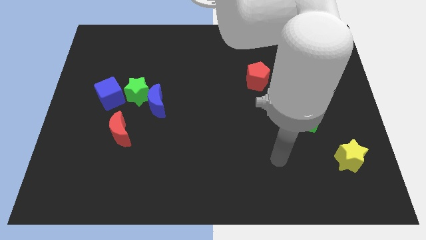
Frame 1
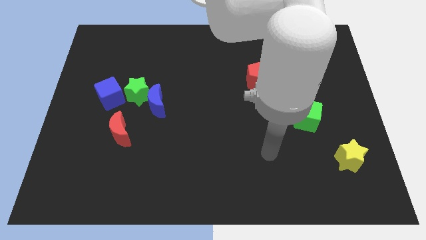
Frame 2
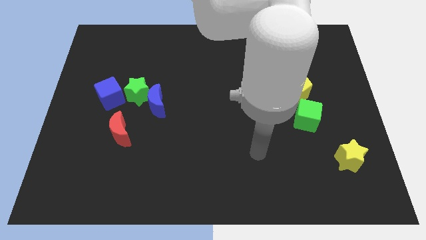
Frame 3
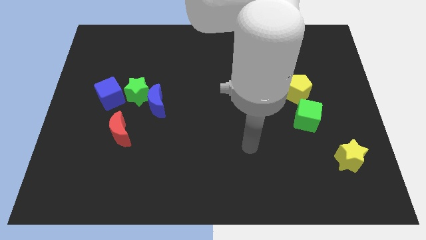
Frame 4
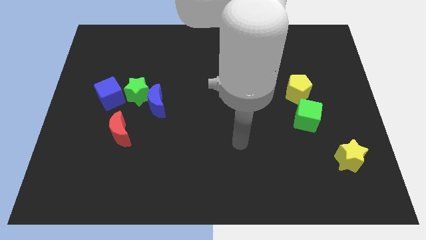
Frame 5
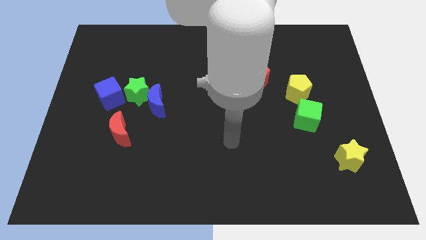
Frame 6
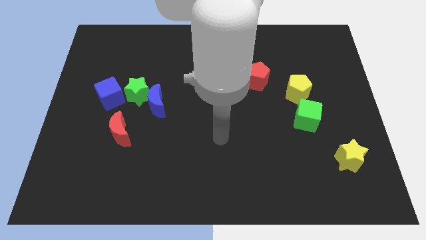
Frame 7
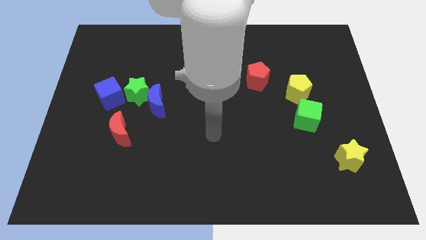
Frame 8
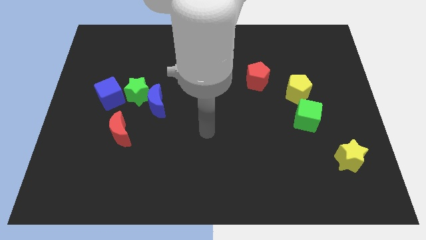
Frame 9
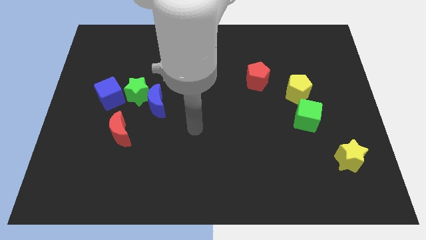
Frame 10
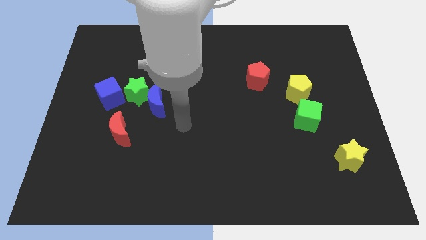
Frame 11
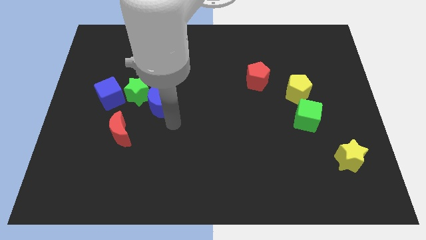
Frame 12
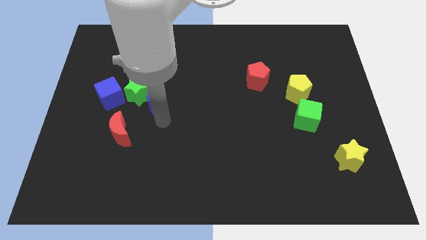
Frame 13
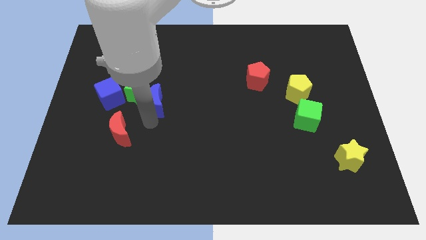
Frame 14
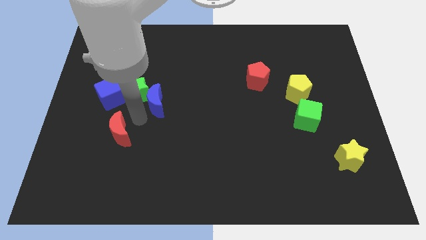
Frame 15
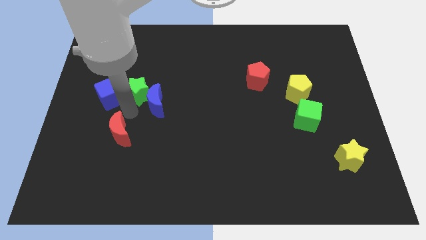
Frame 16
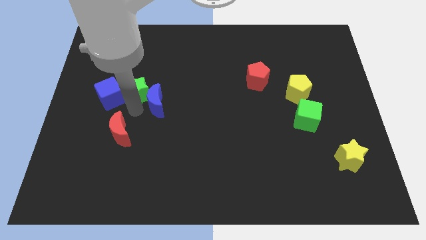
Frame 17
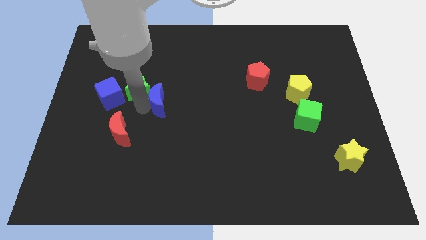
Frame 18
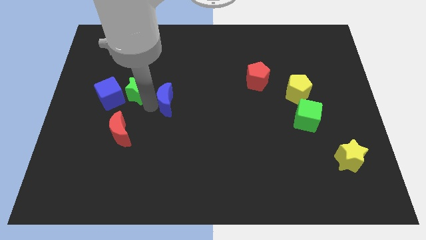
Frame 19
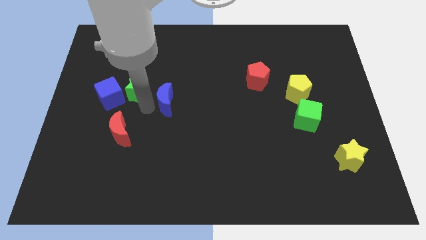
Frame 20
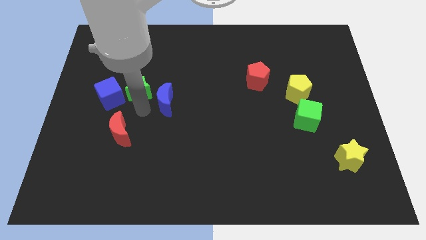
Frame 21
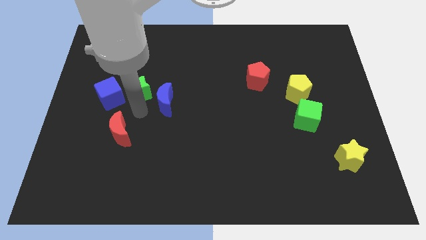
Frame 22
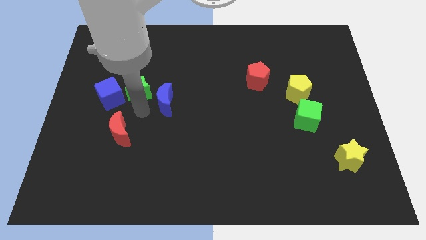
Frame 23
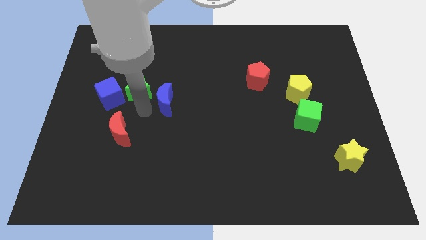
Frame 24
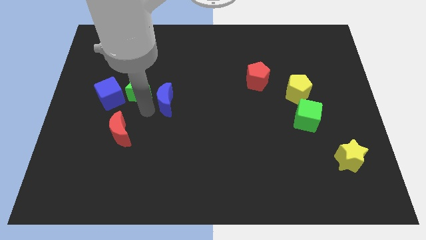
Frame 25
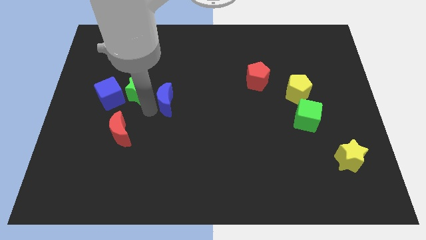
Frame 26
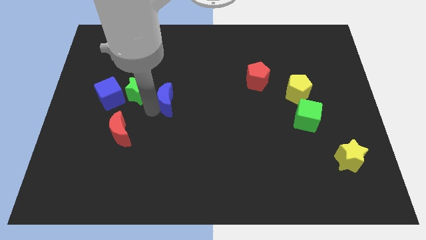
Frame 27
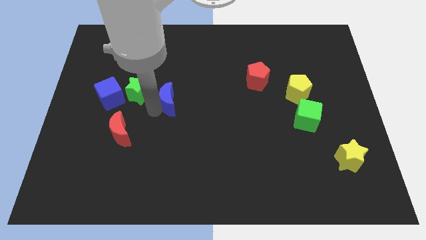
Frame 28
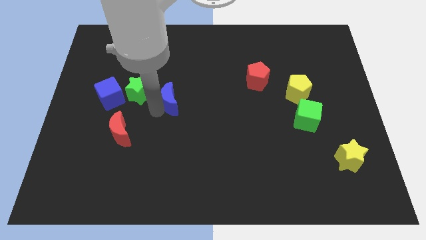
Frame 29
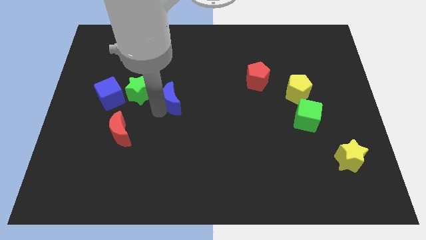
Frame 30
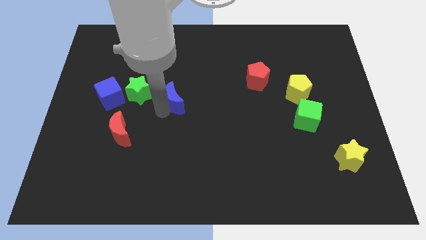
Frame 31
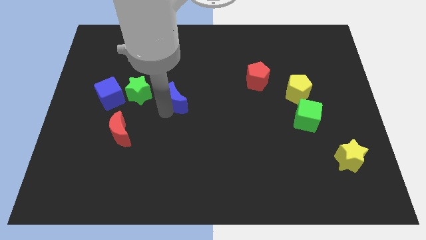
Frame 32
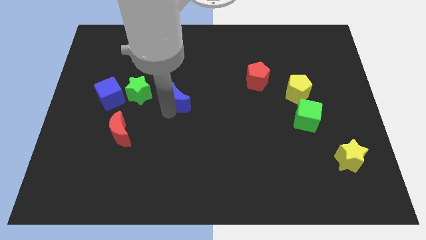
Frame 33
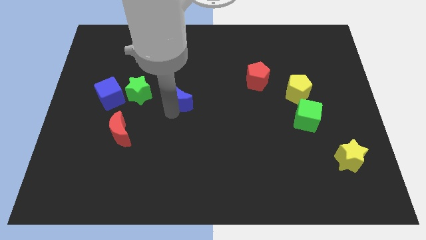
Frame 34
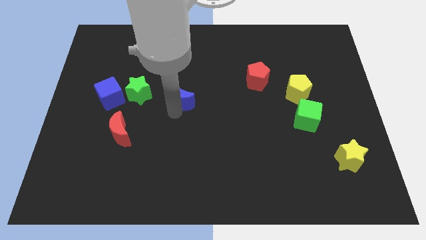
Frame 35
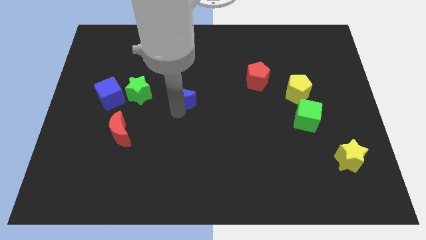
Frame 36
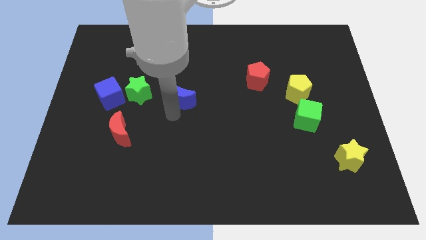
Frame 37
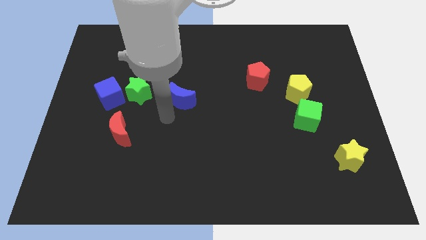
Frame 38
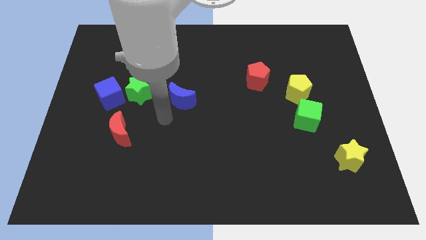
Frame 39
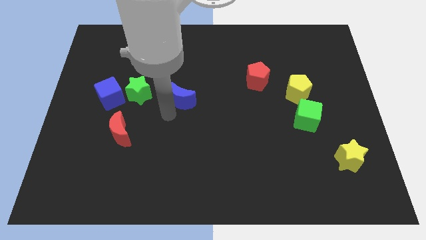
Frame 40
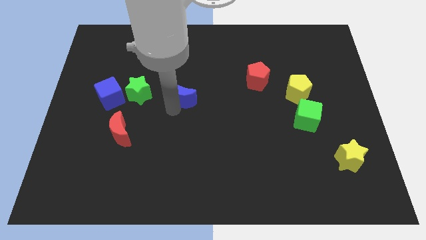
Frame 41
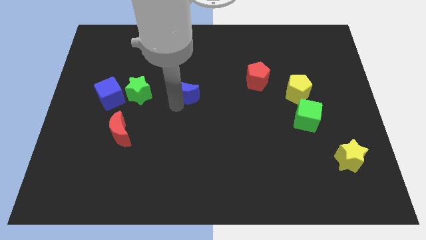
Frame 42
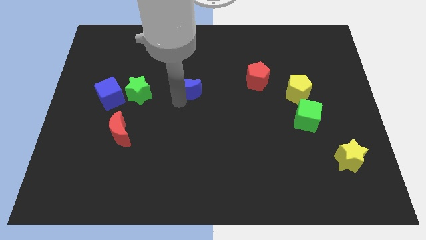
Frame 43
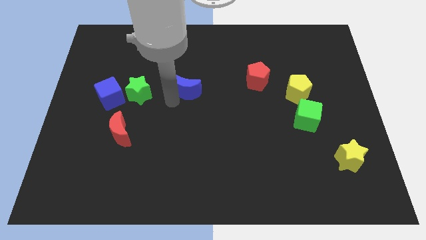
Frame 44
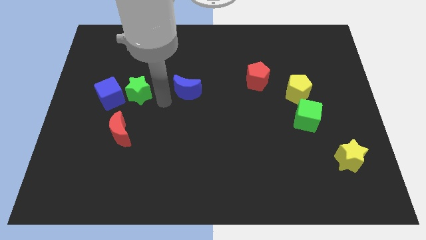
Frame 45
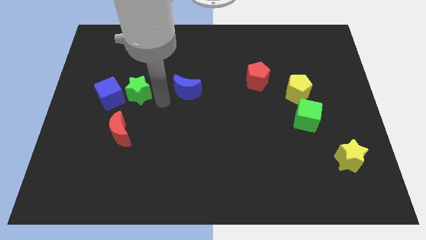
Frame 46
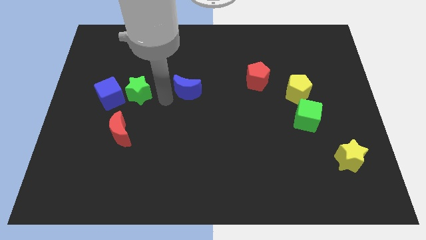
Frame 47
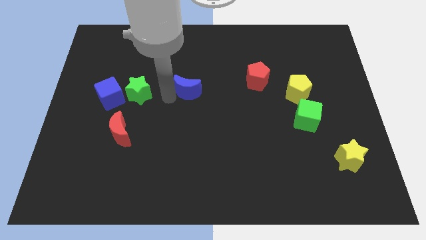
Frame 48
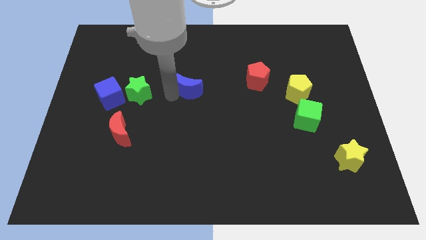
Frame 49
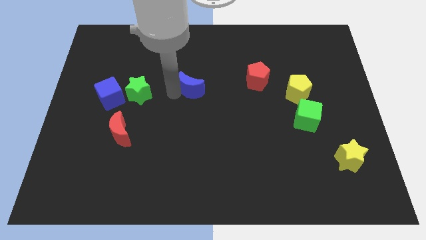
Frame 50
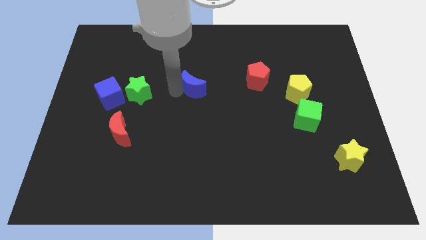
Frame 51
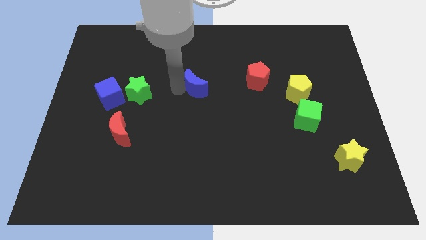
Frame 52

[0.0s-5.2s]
put the blue moon just left of the red pentagon

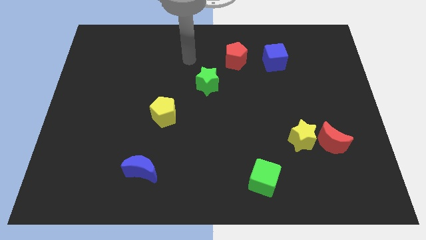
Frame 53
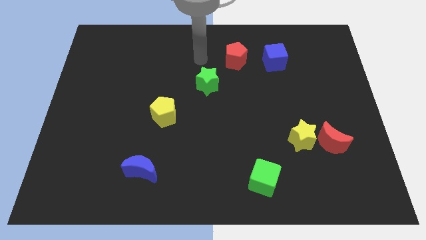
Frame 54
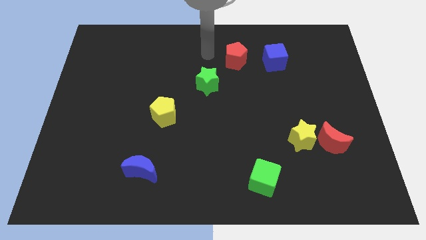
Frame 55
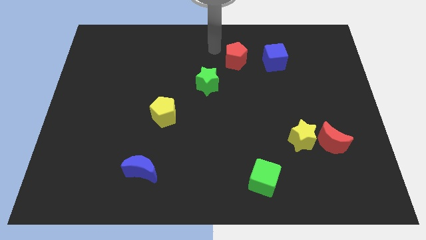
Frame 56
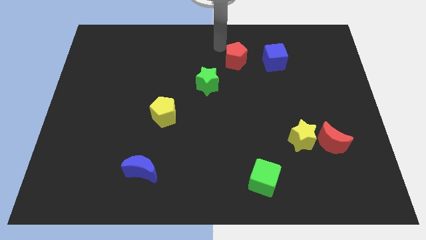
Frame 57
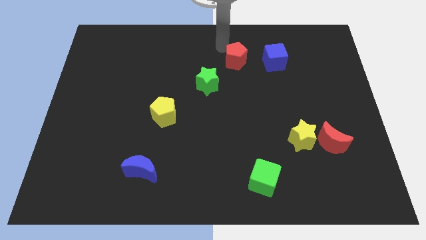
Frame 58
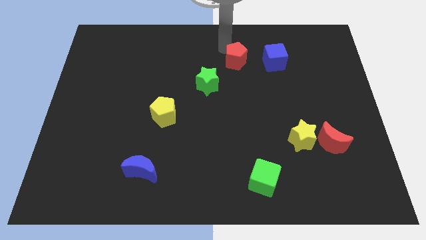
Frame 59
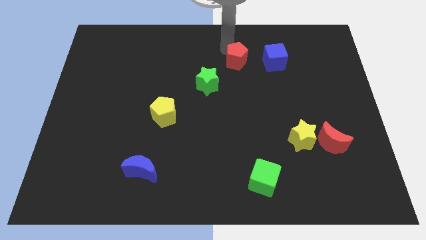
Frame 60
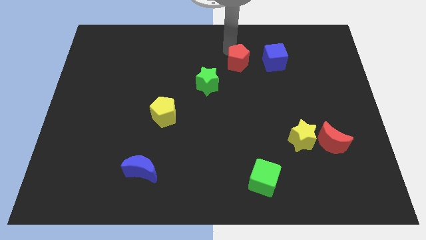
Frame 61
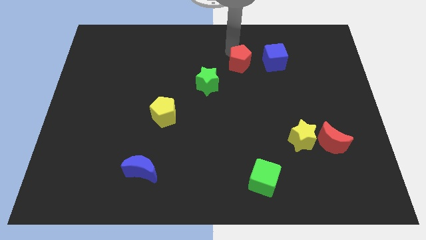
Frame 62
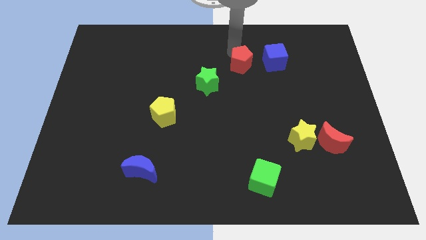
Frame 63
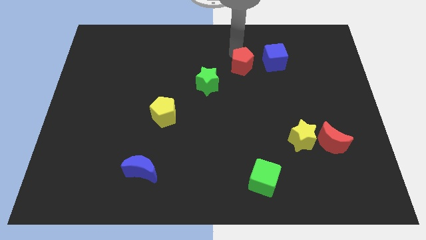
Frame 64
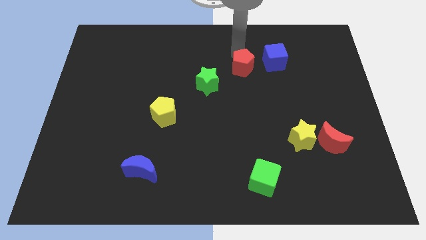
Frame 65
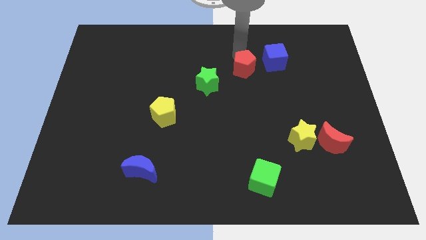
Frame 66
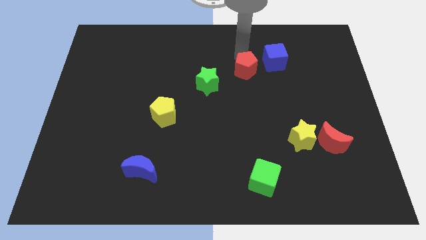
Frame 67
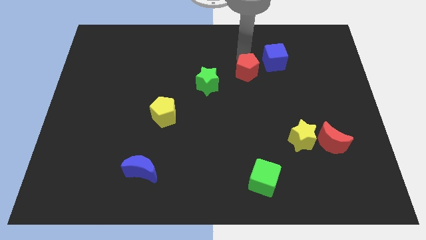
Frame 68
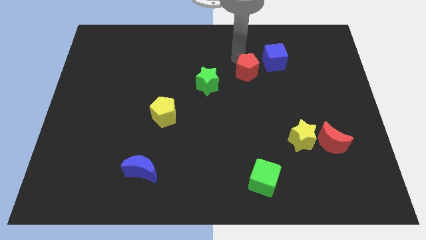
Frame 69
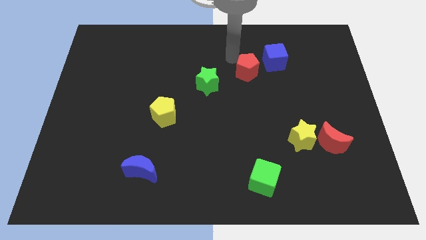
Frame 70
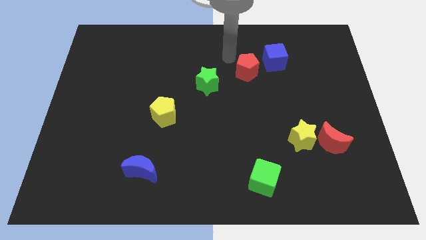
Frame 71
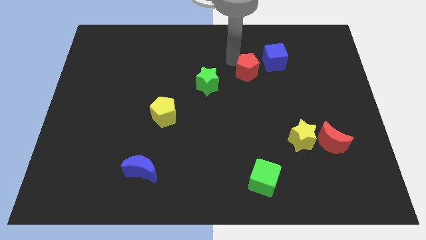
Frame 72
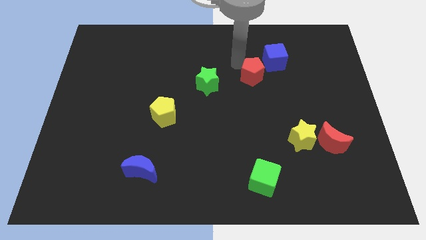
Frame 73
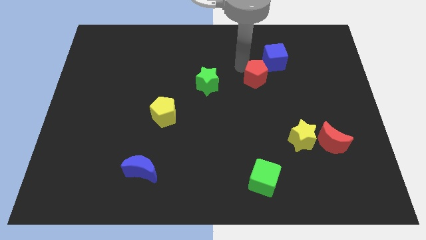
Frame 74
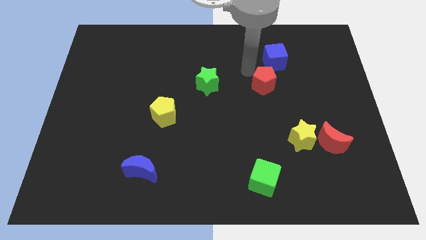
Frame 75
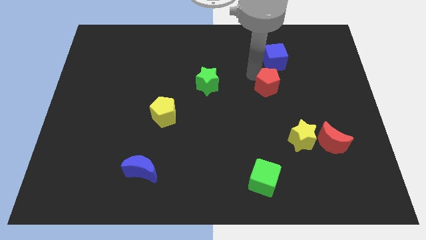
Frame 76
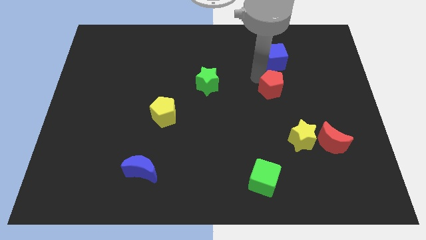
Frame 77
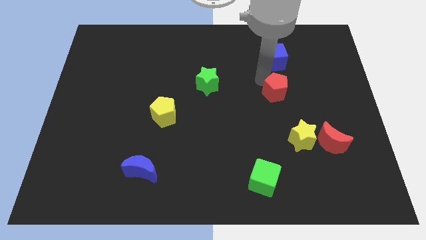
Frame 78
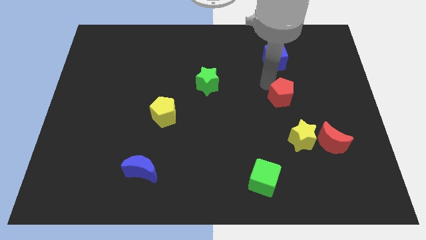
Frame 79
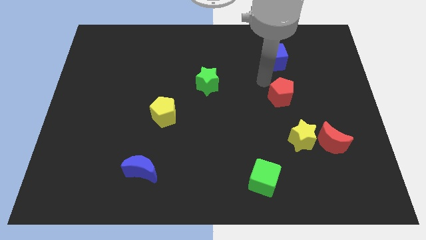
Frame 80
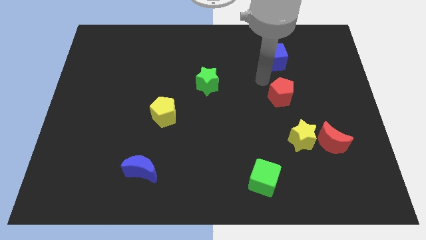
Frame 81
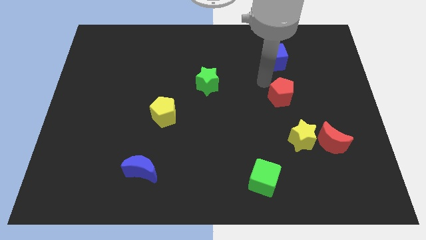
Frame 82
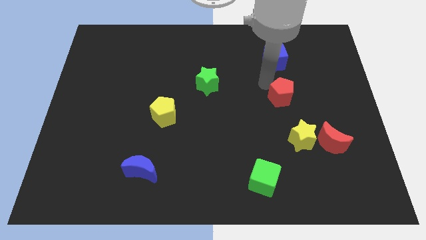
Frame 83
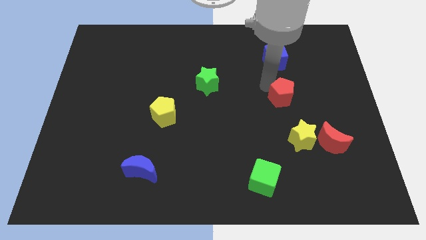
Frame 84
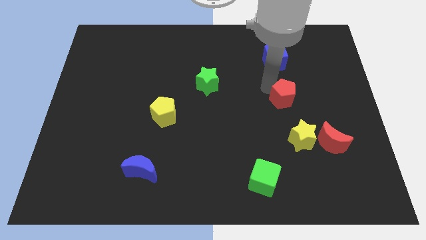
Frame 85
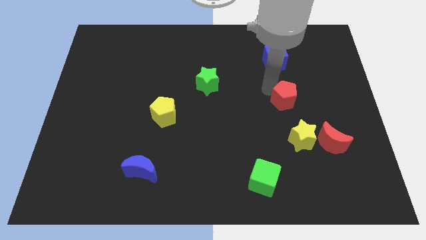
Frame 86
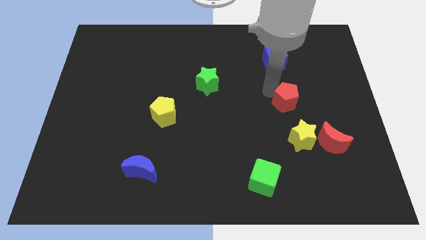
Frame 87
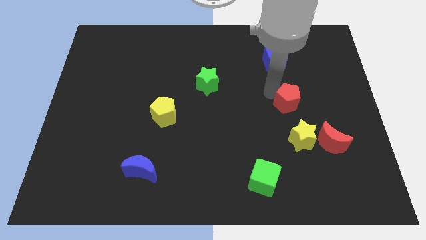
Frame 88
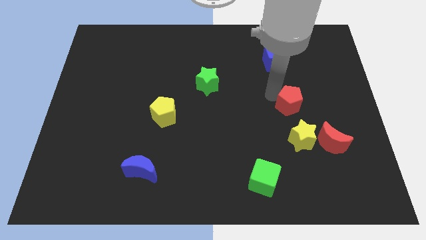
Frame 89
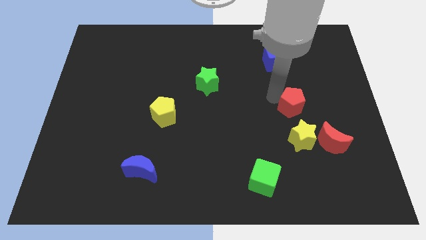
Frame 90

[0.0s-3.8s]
slide the red pentagon diagonally up and to the left of the red moon
